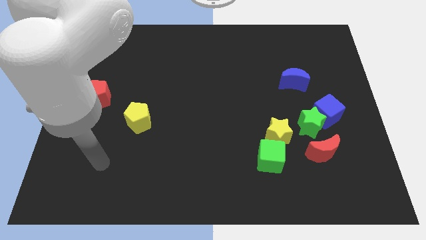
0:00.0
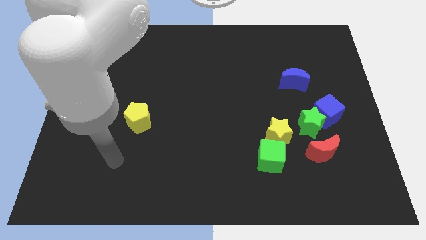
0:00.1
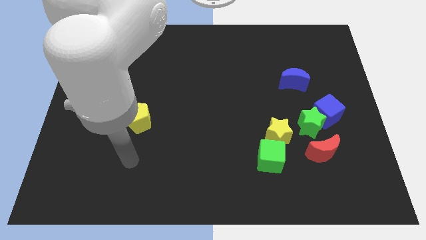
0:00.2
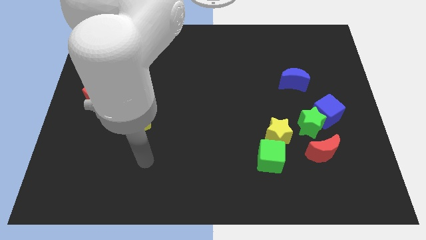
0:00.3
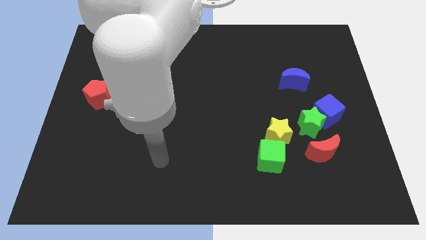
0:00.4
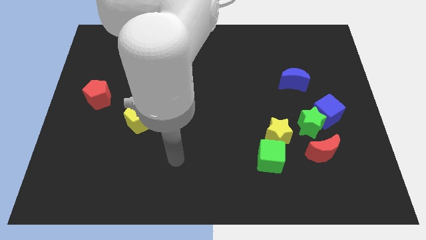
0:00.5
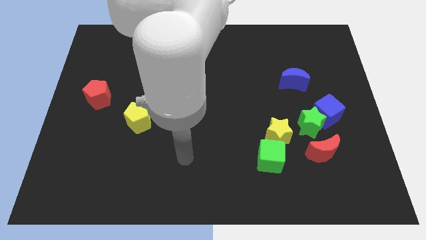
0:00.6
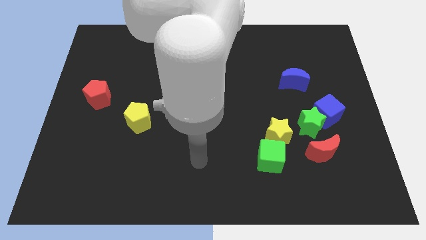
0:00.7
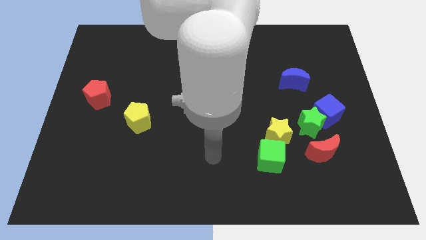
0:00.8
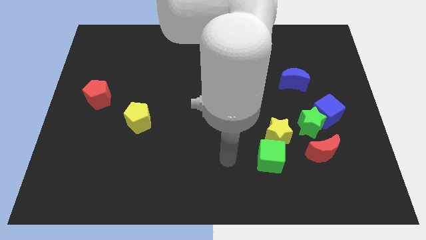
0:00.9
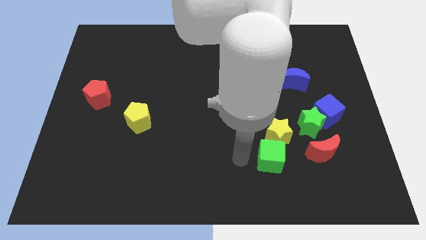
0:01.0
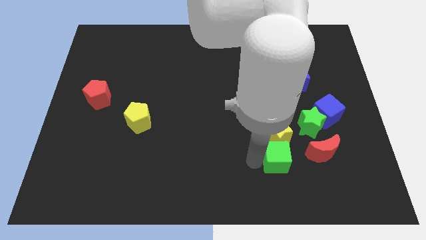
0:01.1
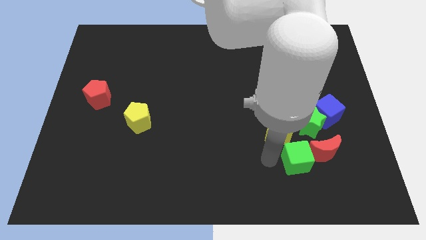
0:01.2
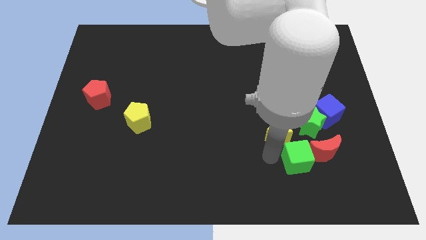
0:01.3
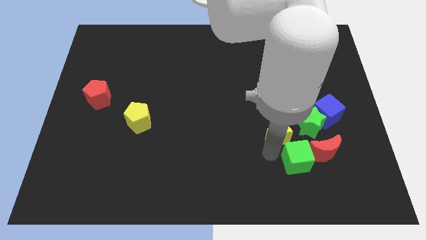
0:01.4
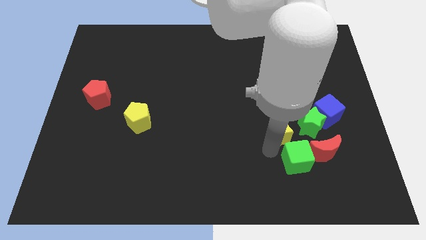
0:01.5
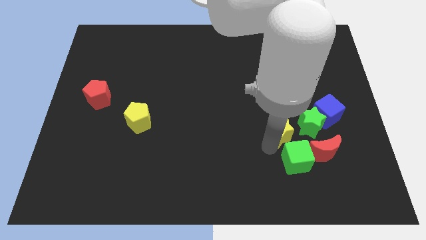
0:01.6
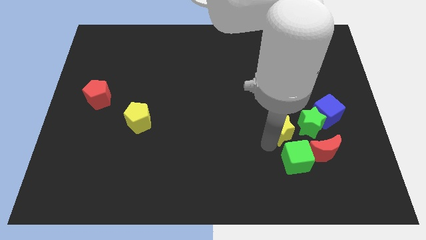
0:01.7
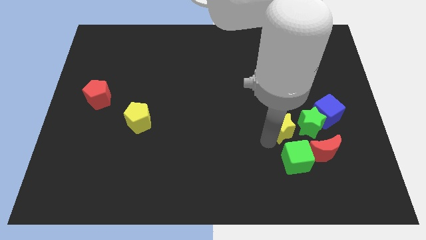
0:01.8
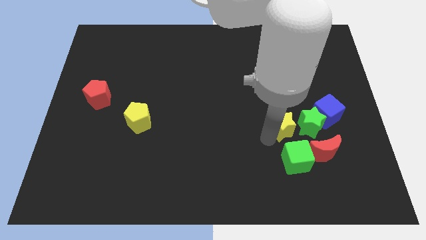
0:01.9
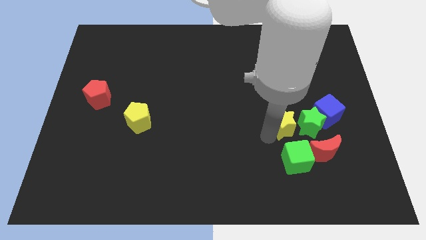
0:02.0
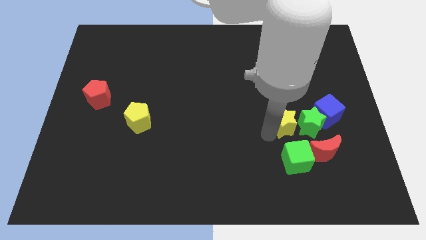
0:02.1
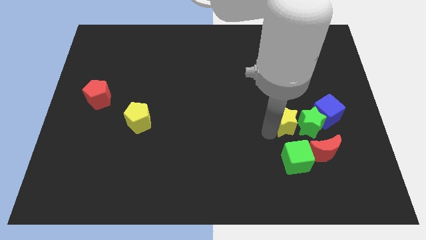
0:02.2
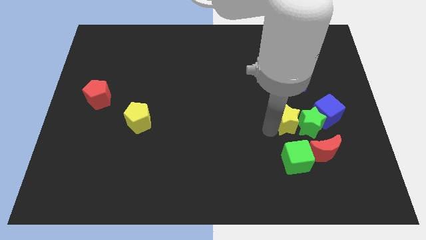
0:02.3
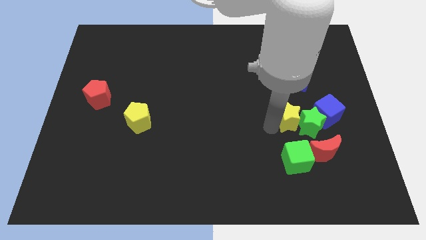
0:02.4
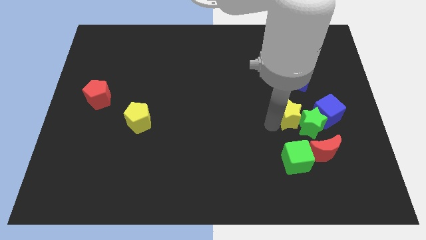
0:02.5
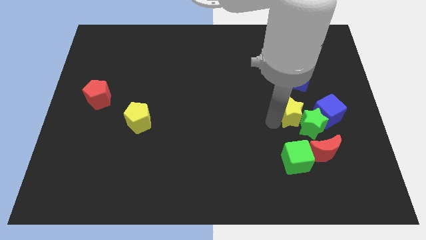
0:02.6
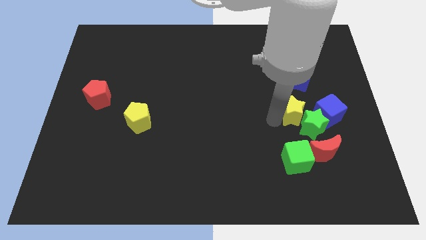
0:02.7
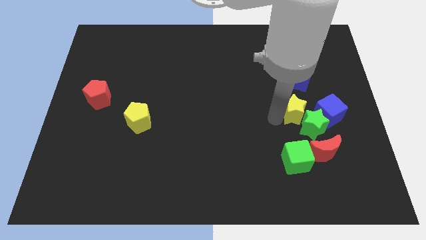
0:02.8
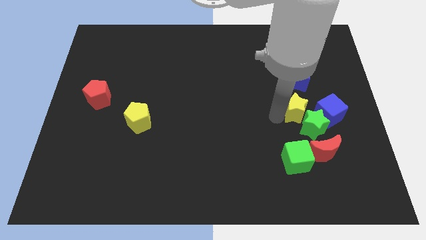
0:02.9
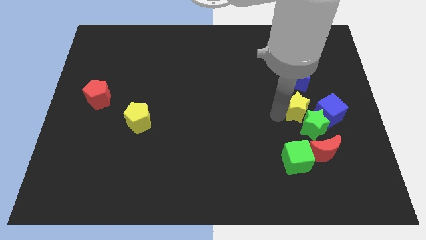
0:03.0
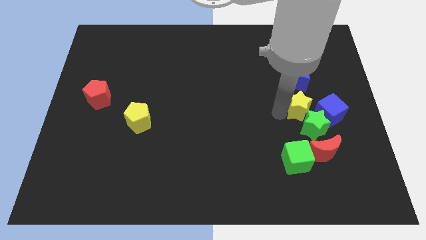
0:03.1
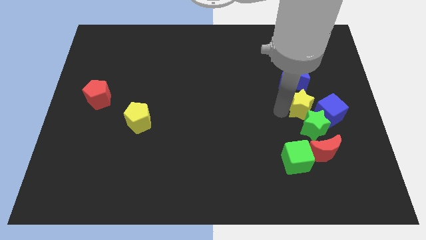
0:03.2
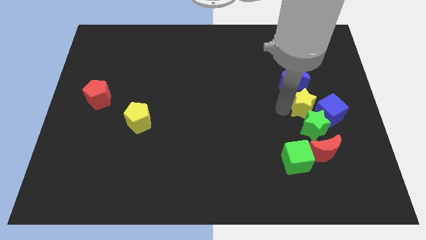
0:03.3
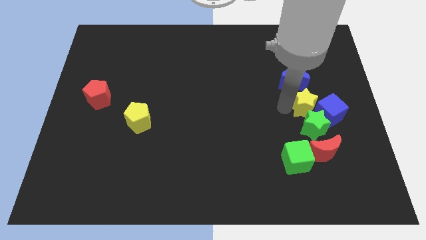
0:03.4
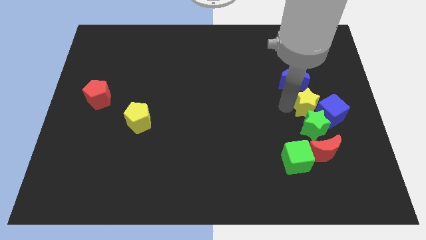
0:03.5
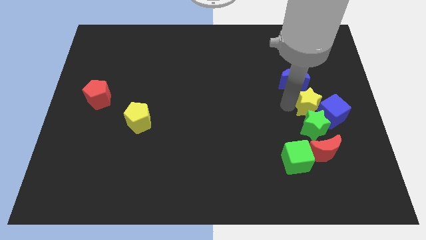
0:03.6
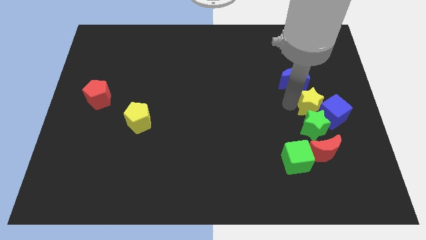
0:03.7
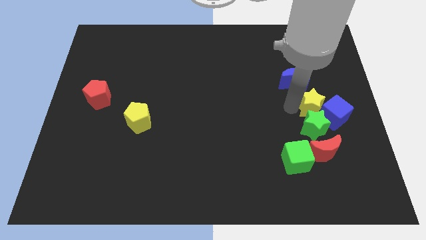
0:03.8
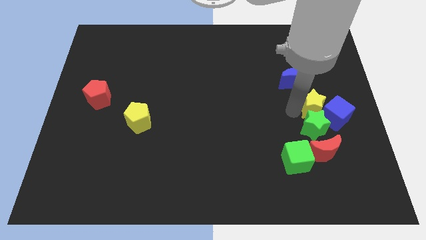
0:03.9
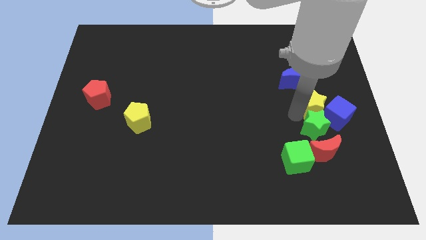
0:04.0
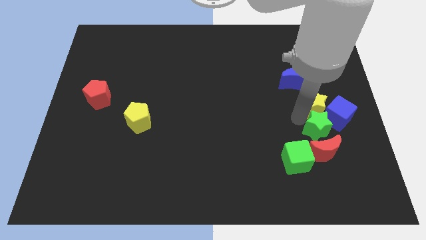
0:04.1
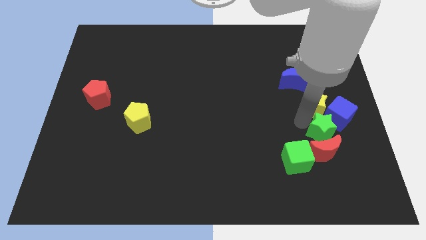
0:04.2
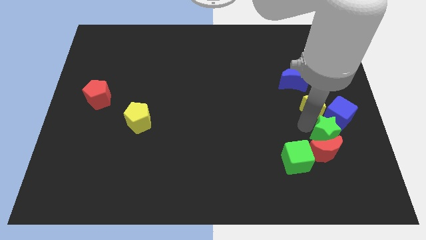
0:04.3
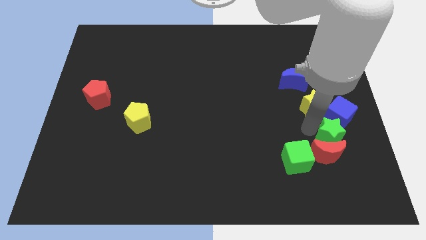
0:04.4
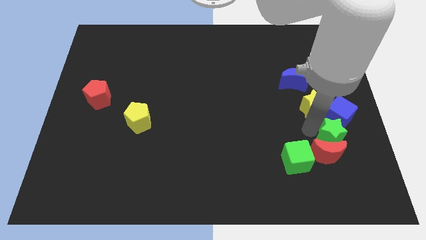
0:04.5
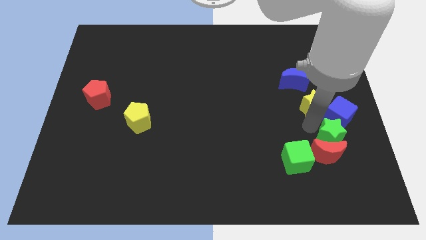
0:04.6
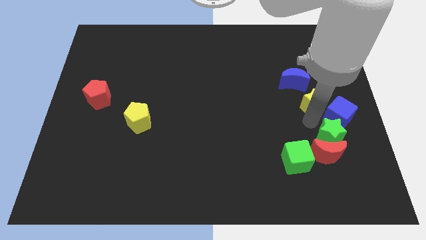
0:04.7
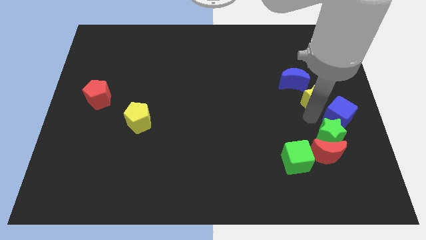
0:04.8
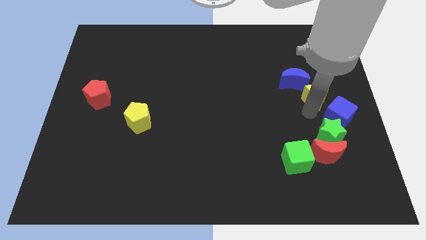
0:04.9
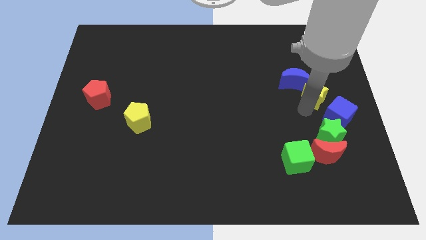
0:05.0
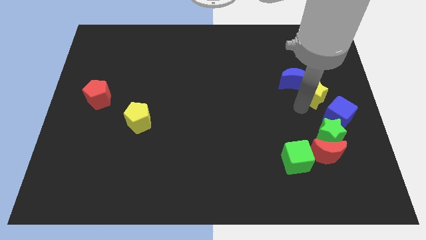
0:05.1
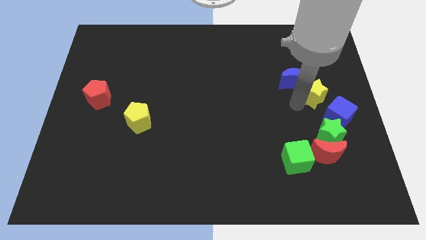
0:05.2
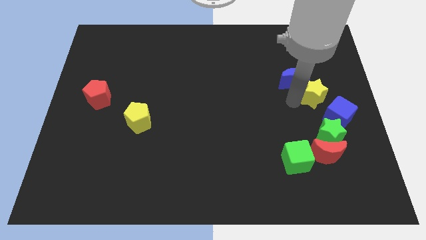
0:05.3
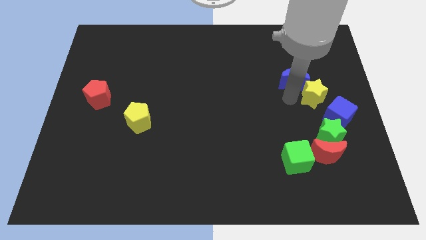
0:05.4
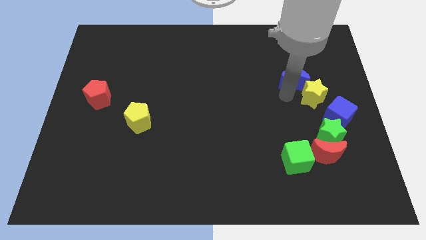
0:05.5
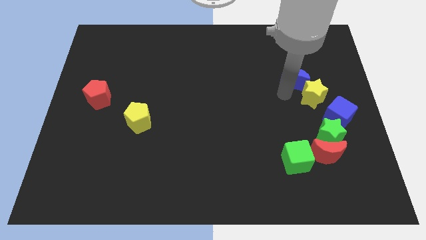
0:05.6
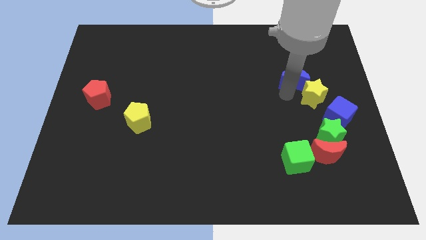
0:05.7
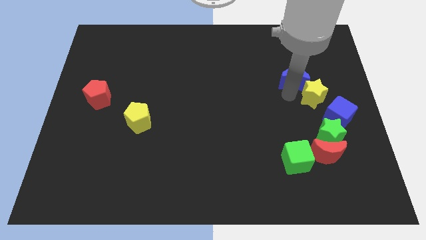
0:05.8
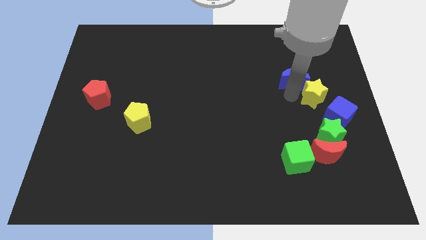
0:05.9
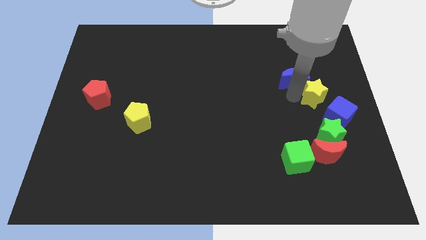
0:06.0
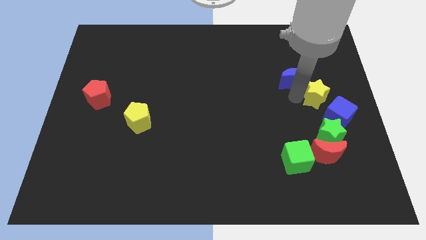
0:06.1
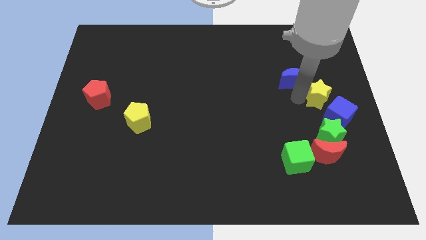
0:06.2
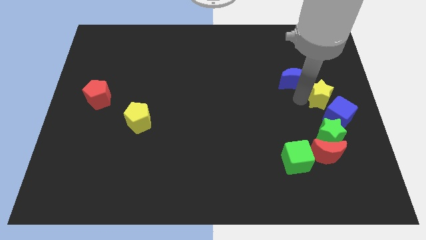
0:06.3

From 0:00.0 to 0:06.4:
move the yellow star to the center right

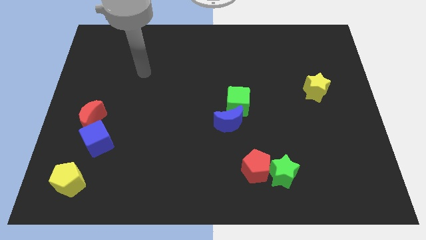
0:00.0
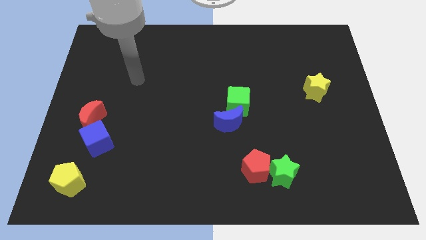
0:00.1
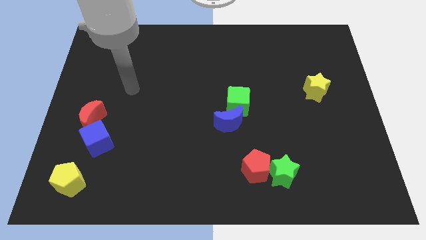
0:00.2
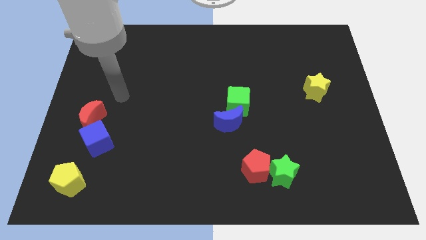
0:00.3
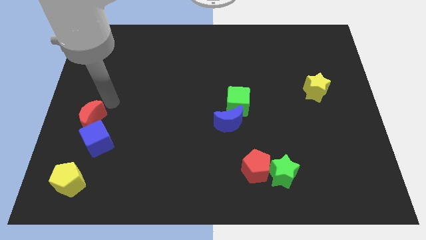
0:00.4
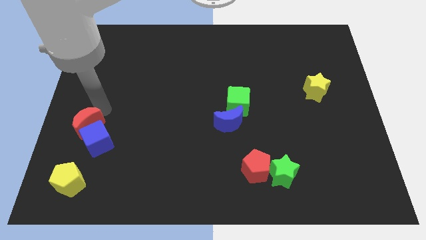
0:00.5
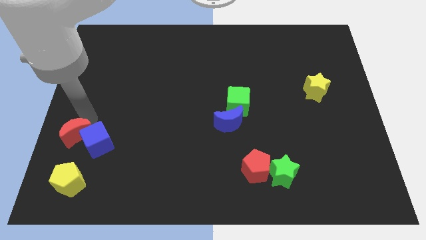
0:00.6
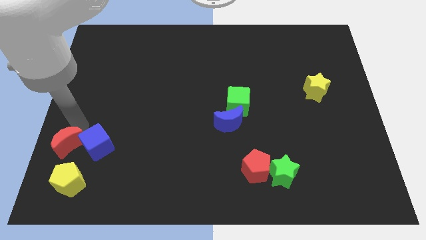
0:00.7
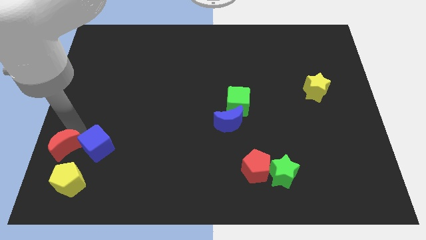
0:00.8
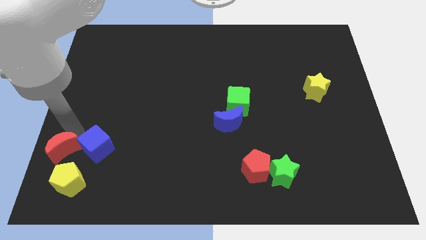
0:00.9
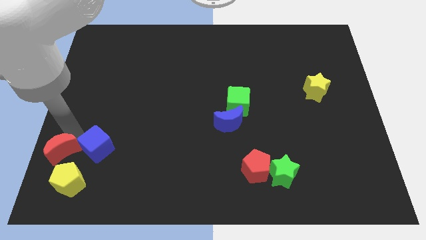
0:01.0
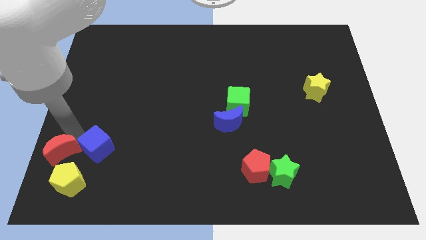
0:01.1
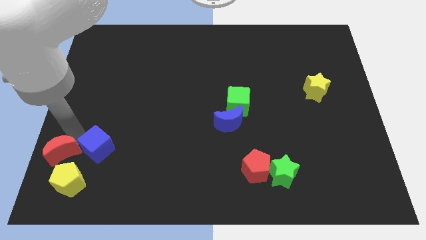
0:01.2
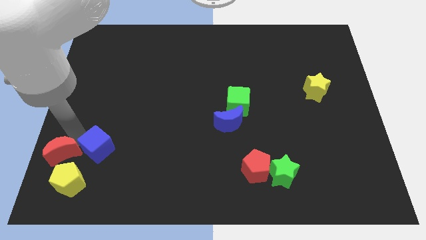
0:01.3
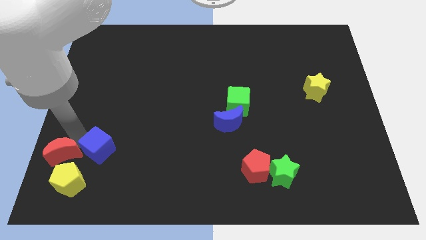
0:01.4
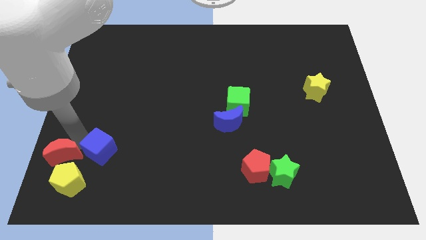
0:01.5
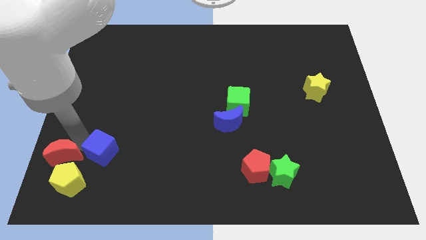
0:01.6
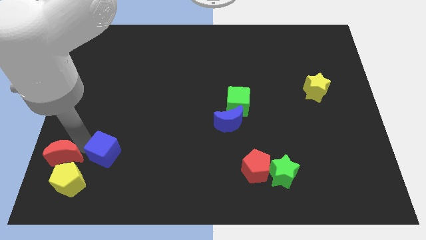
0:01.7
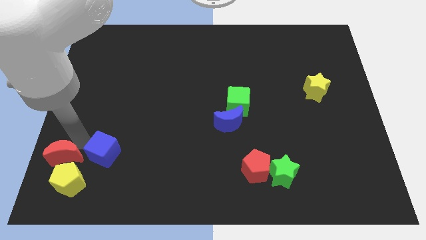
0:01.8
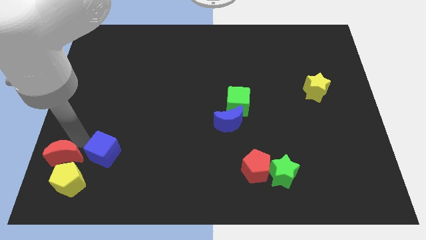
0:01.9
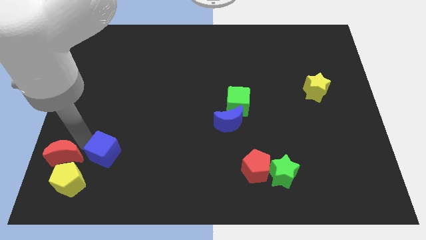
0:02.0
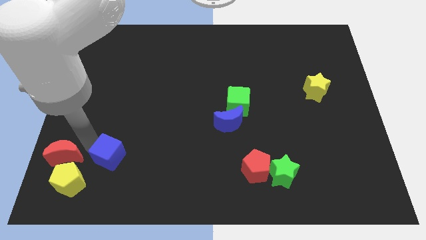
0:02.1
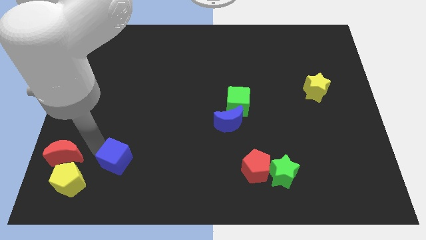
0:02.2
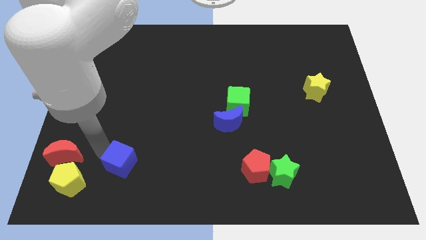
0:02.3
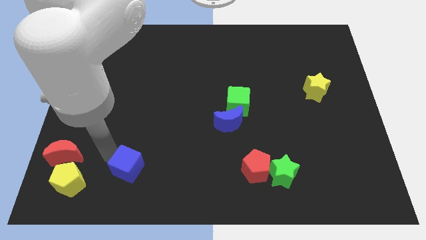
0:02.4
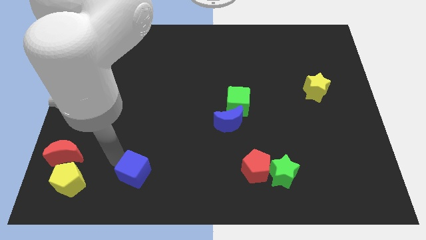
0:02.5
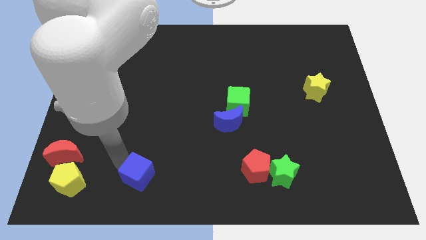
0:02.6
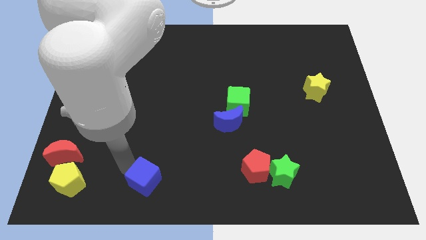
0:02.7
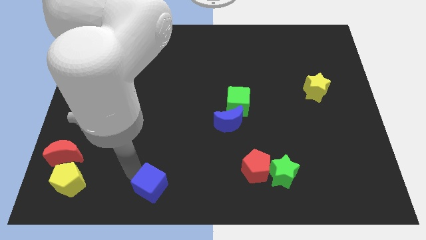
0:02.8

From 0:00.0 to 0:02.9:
slide the blue cube to the bottom
